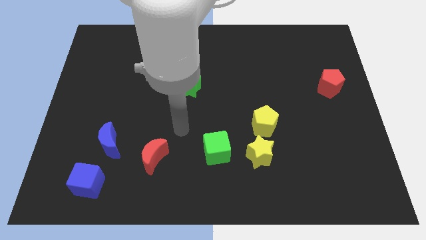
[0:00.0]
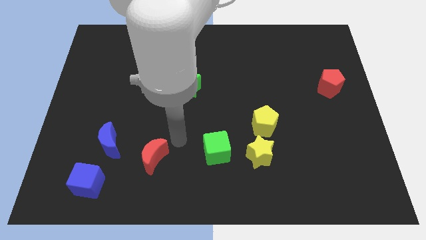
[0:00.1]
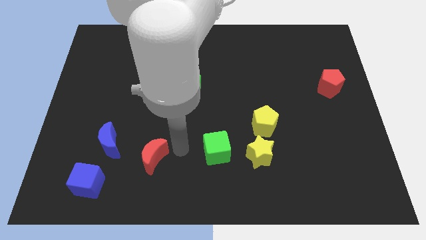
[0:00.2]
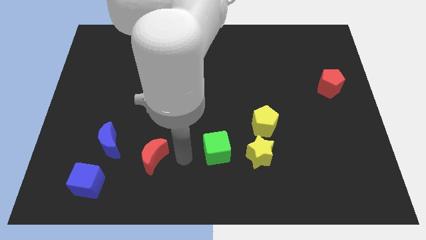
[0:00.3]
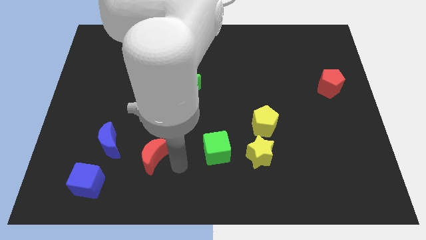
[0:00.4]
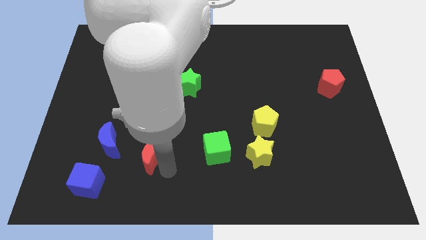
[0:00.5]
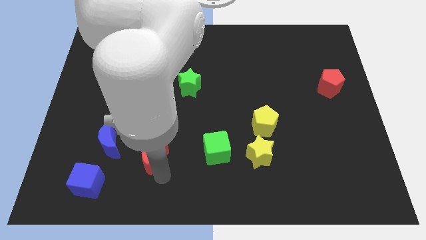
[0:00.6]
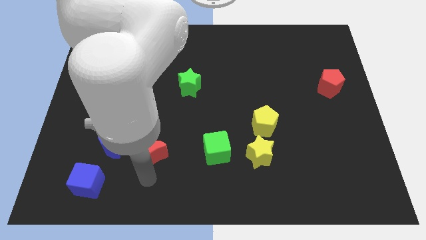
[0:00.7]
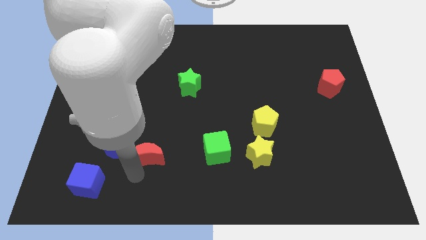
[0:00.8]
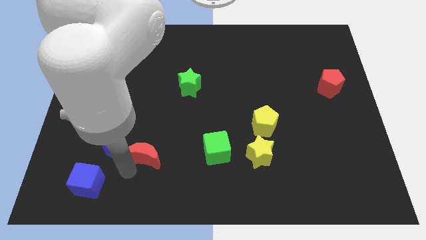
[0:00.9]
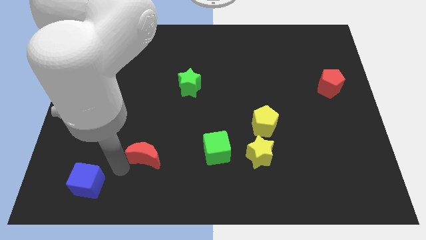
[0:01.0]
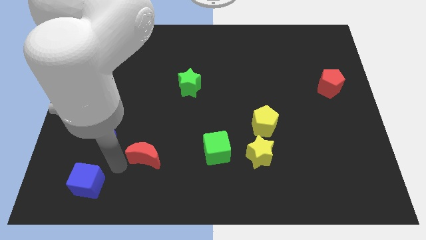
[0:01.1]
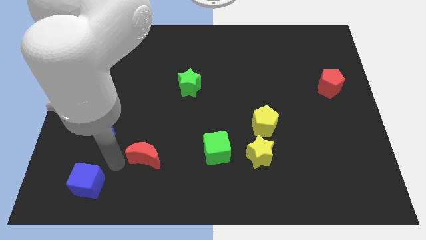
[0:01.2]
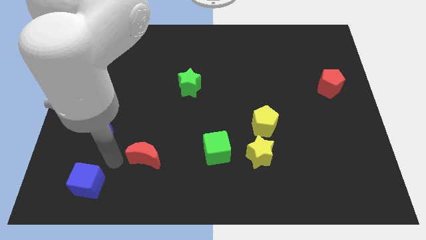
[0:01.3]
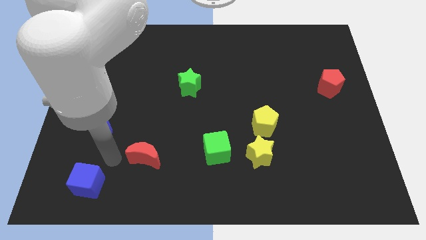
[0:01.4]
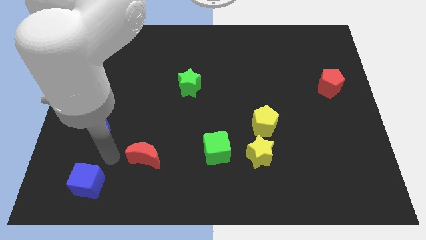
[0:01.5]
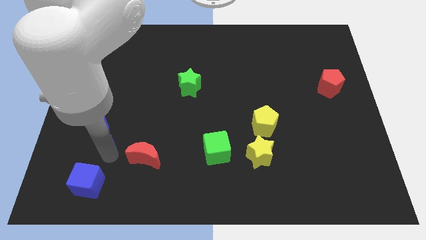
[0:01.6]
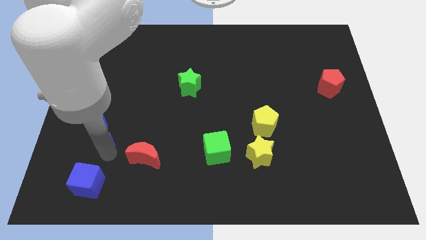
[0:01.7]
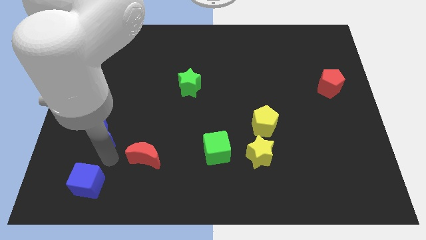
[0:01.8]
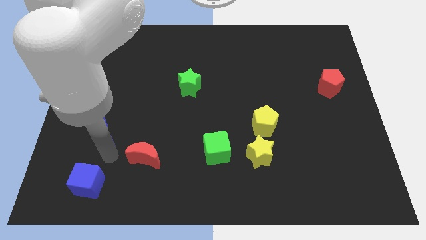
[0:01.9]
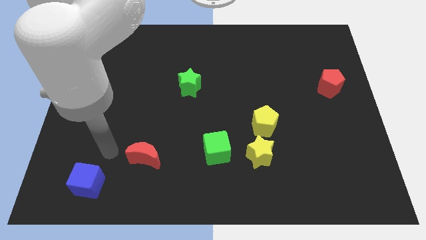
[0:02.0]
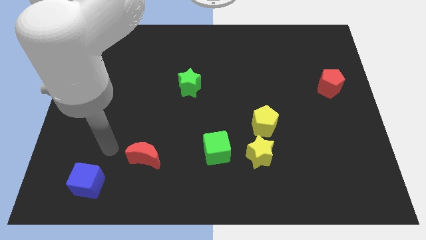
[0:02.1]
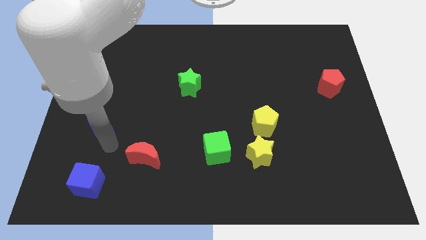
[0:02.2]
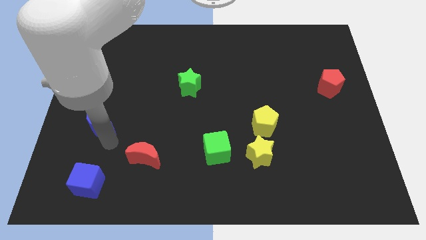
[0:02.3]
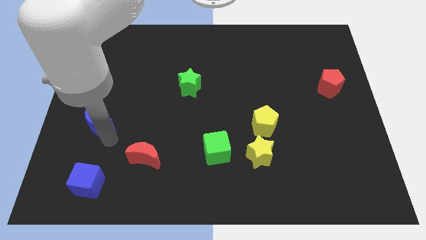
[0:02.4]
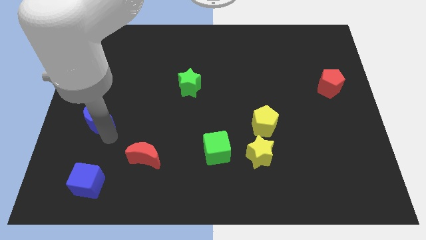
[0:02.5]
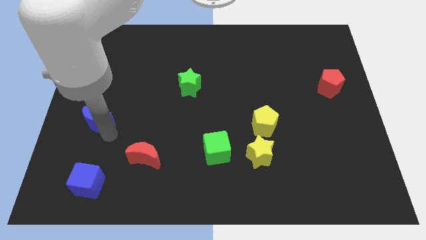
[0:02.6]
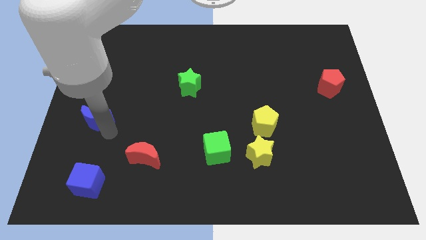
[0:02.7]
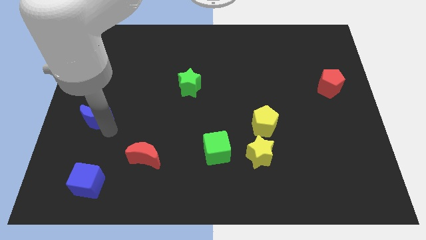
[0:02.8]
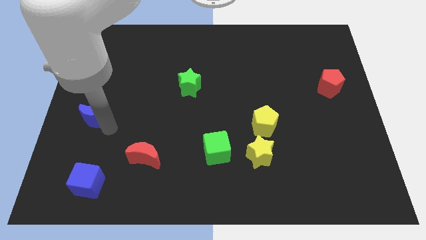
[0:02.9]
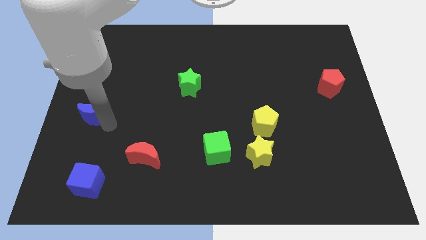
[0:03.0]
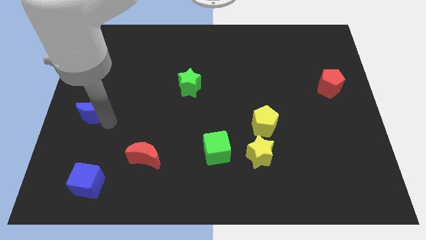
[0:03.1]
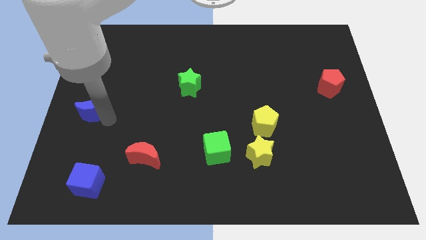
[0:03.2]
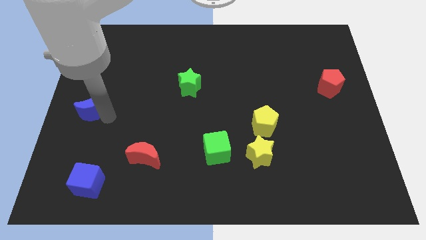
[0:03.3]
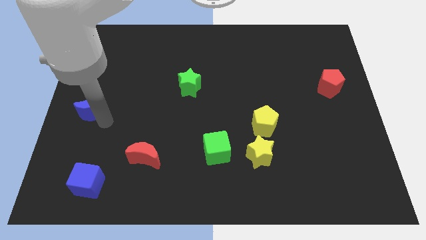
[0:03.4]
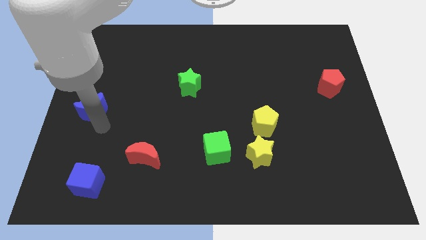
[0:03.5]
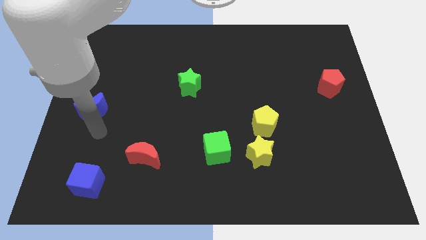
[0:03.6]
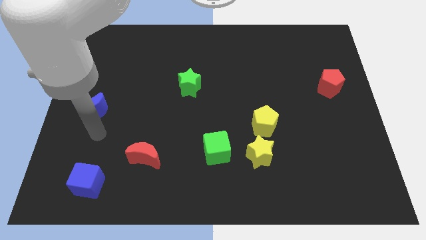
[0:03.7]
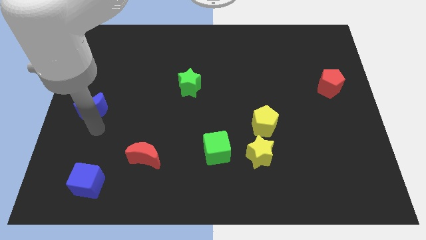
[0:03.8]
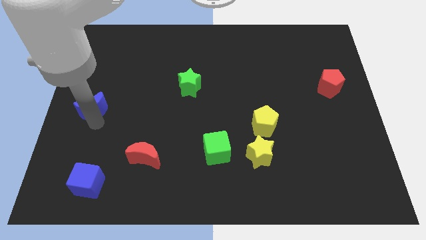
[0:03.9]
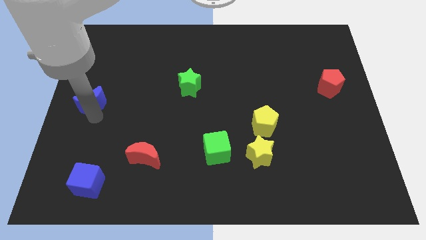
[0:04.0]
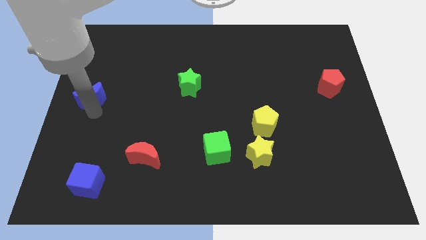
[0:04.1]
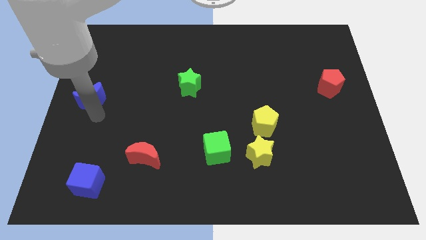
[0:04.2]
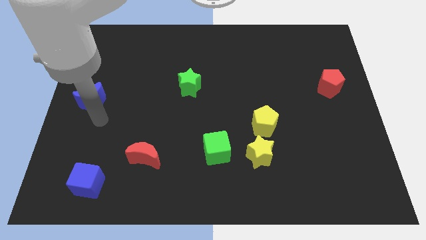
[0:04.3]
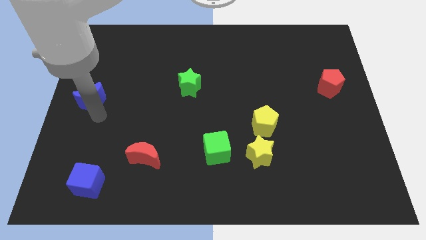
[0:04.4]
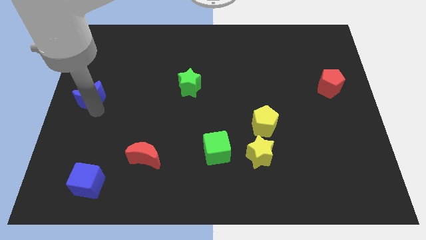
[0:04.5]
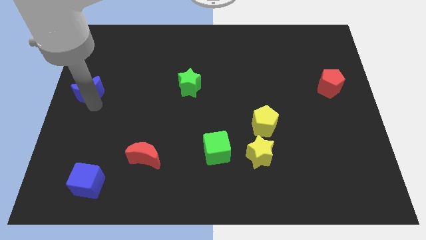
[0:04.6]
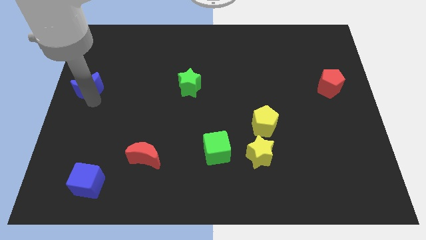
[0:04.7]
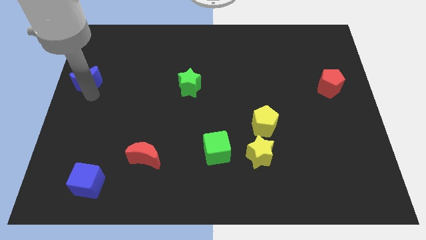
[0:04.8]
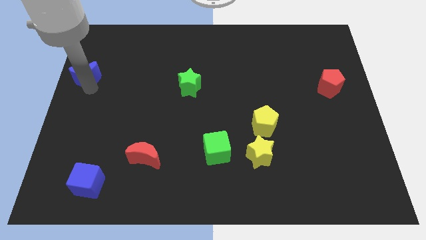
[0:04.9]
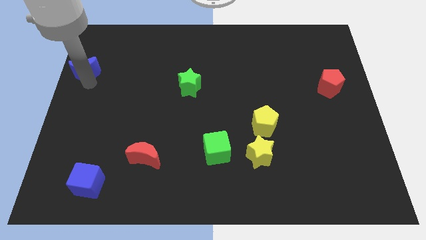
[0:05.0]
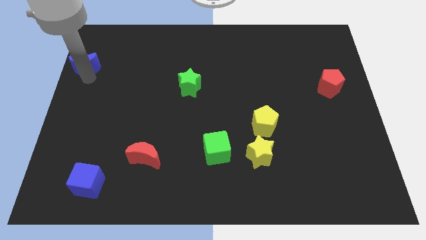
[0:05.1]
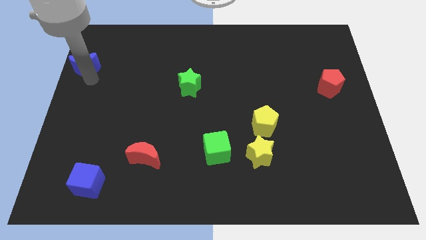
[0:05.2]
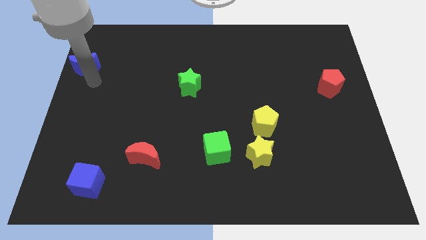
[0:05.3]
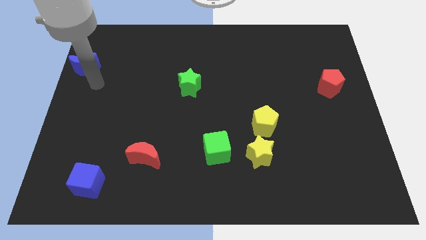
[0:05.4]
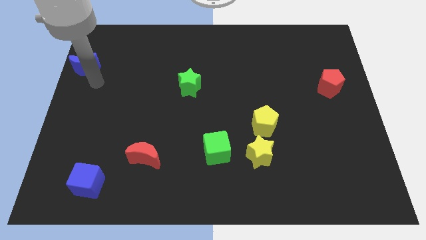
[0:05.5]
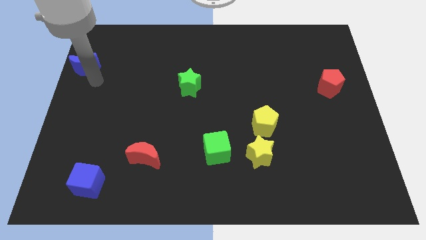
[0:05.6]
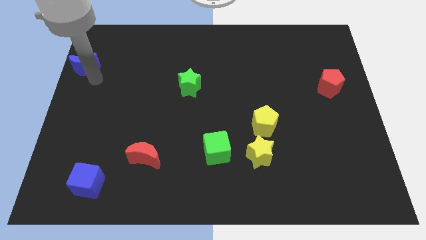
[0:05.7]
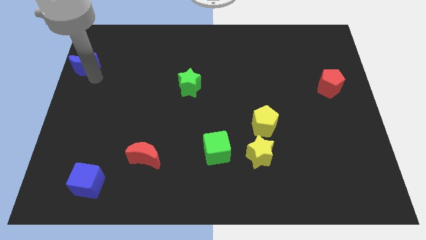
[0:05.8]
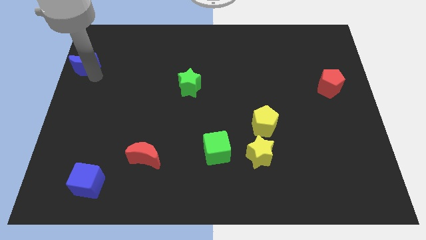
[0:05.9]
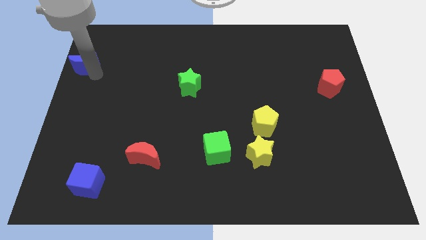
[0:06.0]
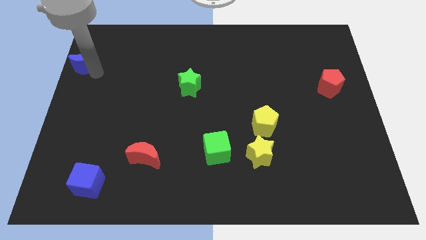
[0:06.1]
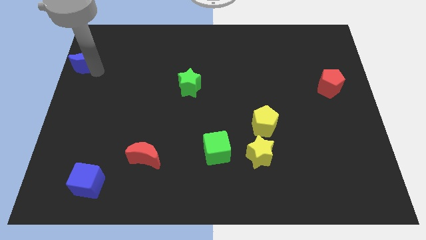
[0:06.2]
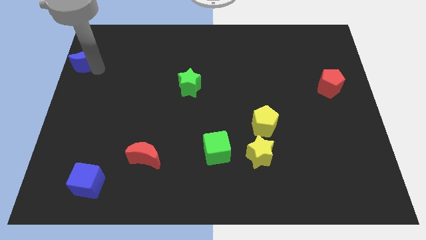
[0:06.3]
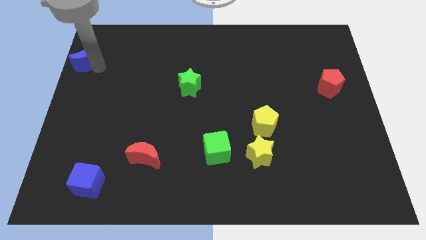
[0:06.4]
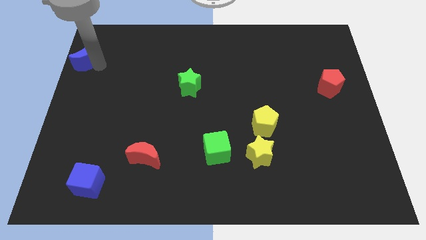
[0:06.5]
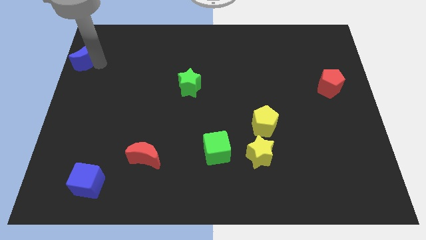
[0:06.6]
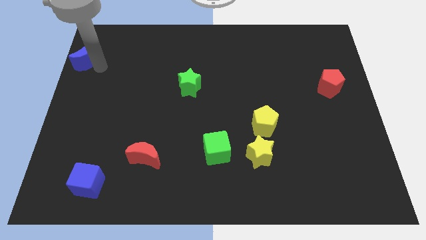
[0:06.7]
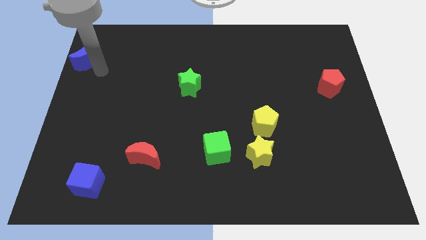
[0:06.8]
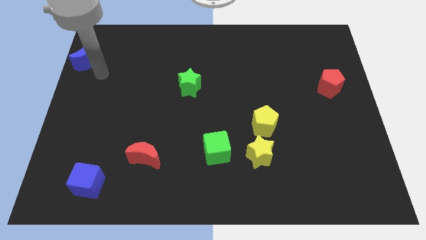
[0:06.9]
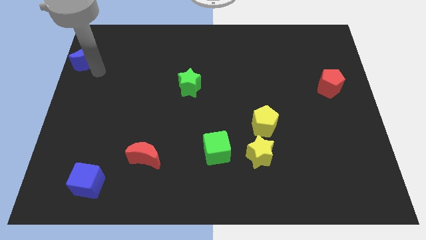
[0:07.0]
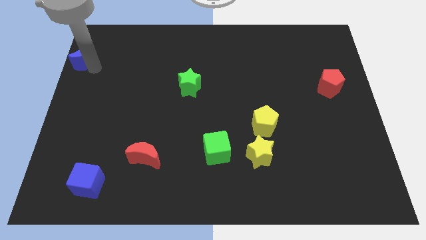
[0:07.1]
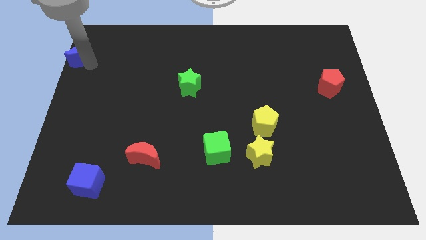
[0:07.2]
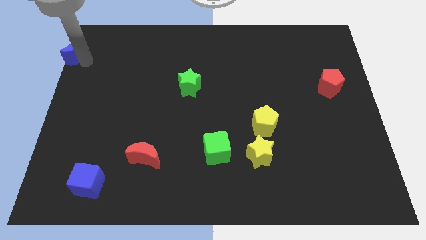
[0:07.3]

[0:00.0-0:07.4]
slide the blue moon to the top left corner
